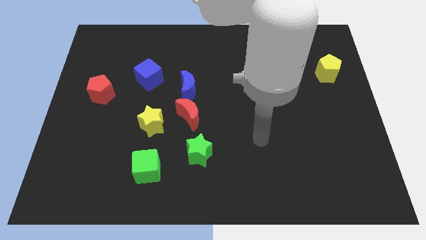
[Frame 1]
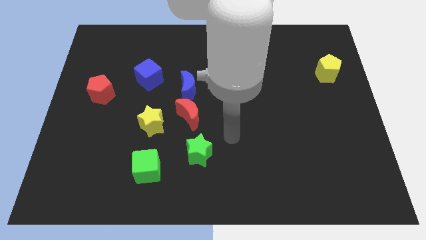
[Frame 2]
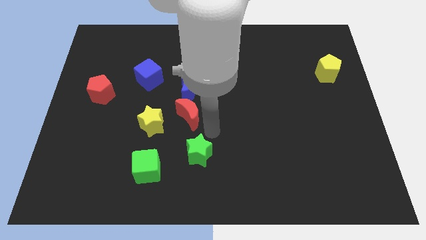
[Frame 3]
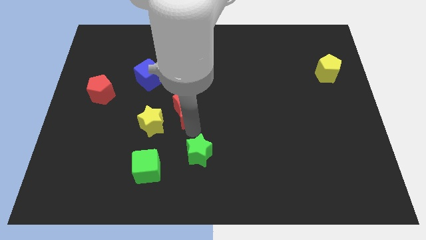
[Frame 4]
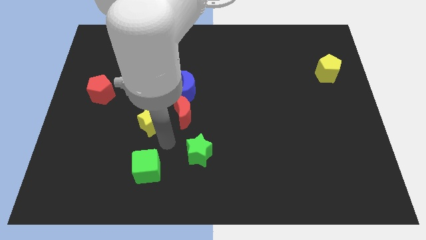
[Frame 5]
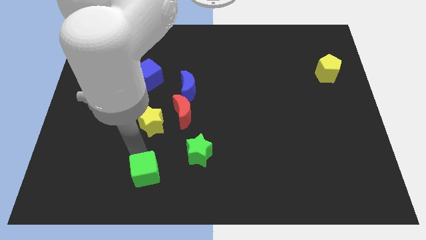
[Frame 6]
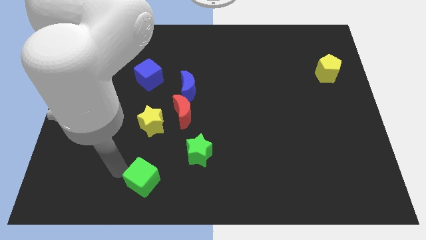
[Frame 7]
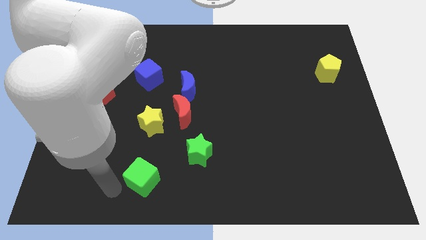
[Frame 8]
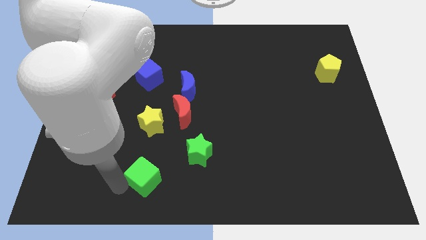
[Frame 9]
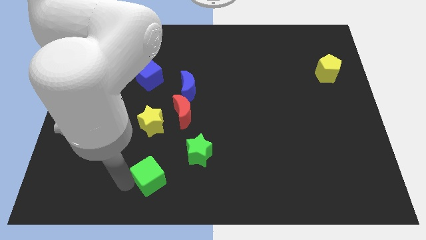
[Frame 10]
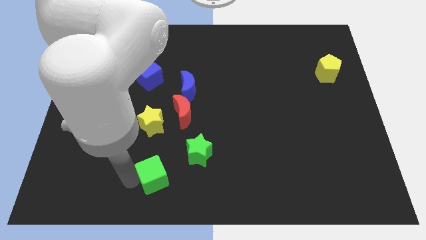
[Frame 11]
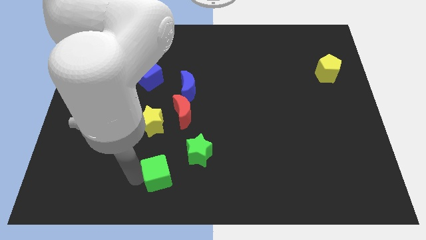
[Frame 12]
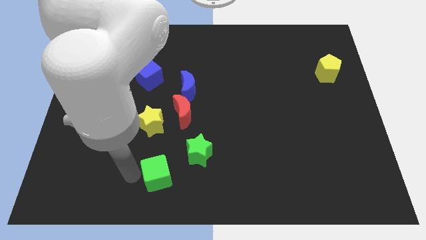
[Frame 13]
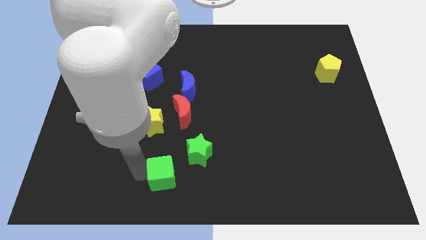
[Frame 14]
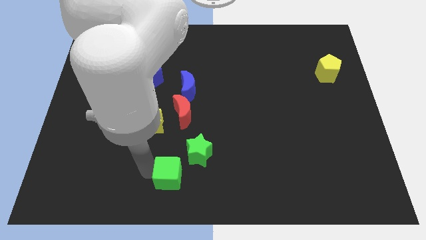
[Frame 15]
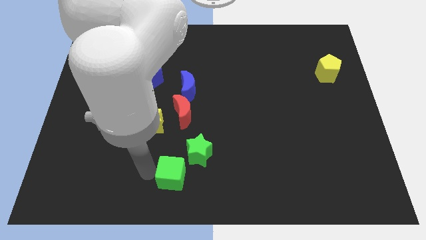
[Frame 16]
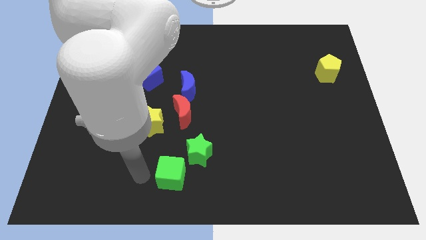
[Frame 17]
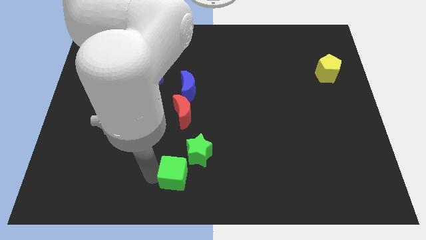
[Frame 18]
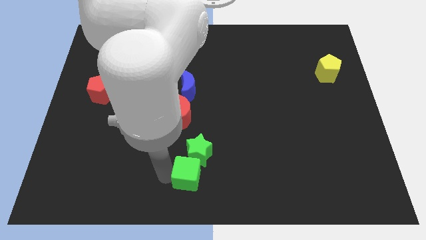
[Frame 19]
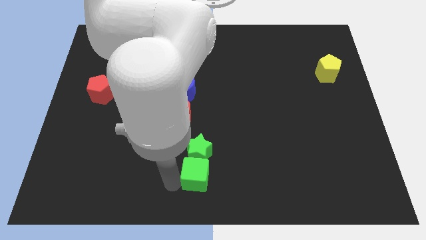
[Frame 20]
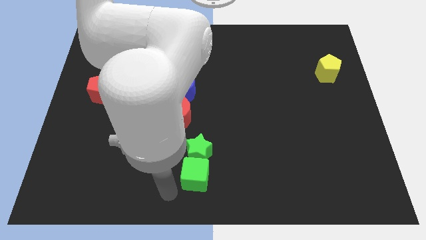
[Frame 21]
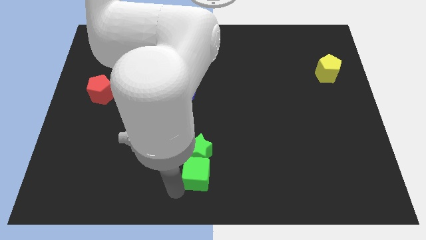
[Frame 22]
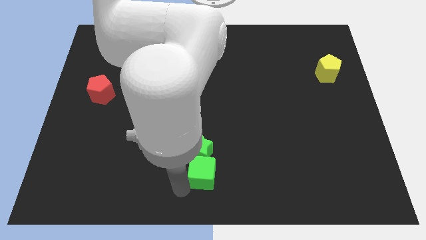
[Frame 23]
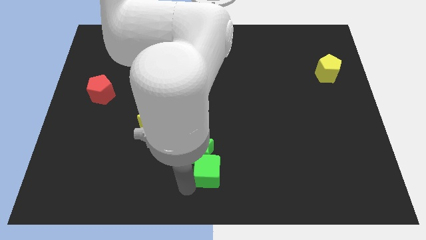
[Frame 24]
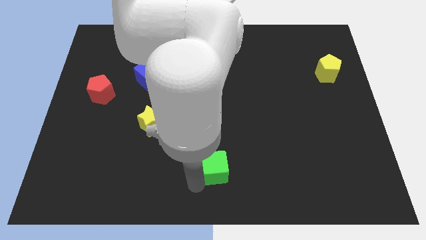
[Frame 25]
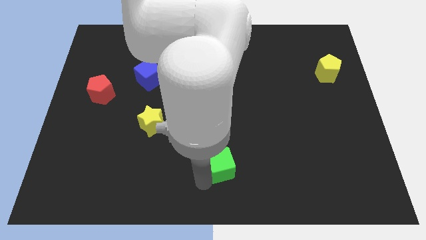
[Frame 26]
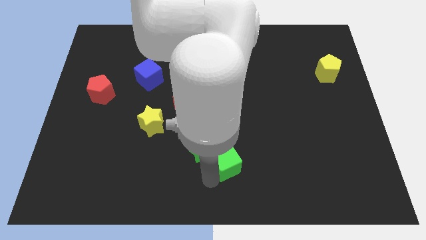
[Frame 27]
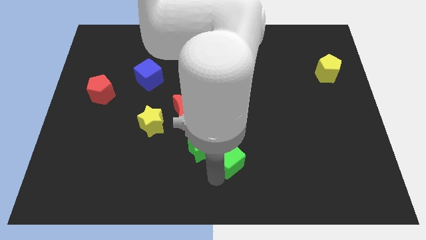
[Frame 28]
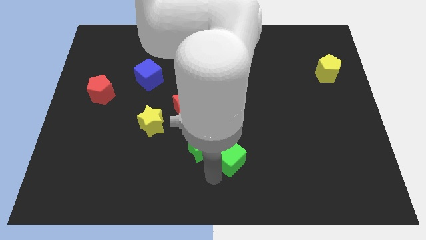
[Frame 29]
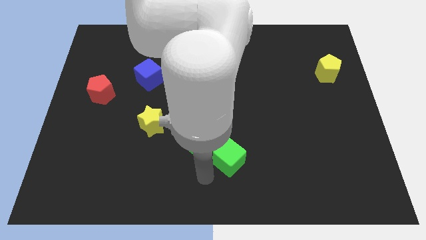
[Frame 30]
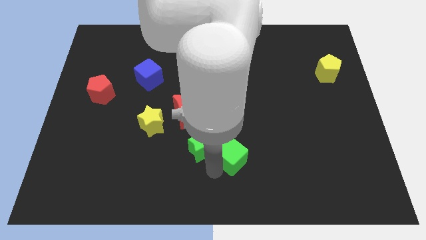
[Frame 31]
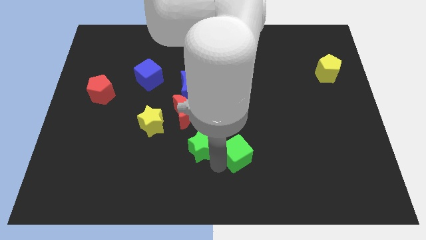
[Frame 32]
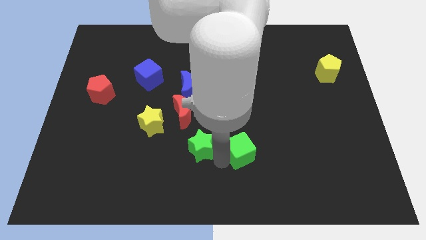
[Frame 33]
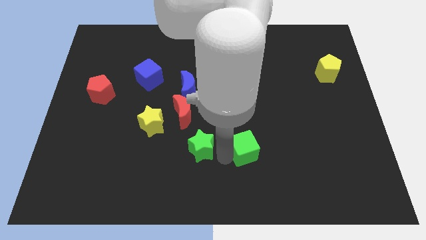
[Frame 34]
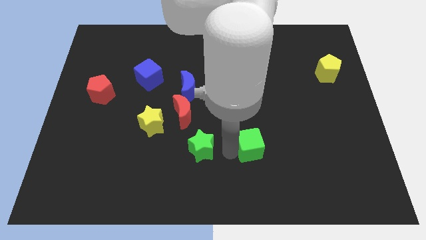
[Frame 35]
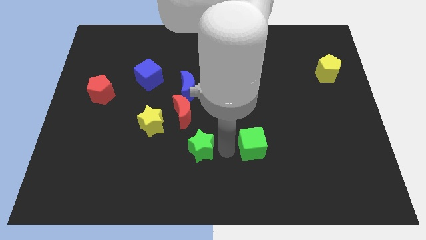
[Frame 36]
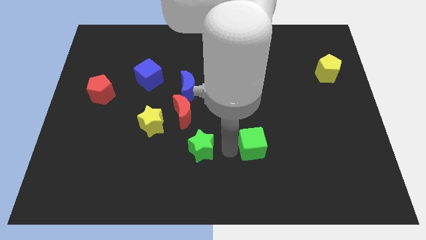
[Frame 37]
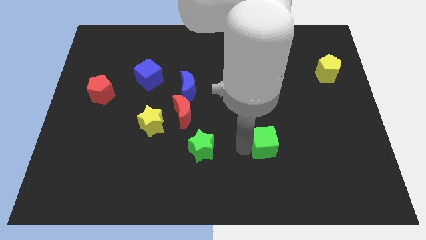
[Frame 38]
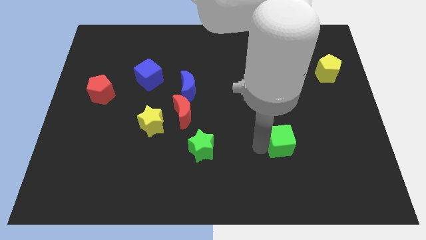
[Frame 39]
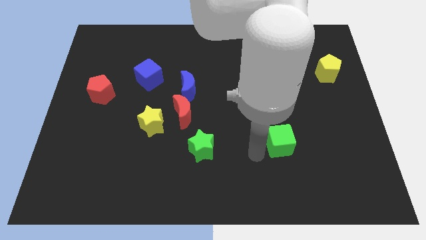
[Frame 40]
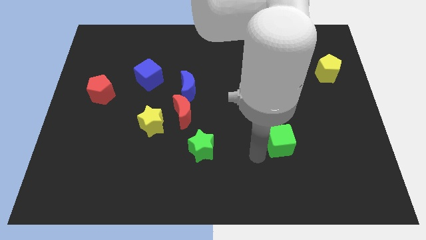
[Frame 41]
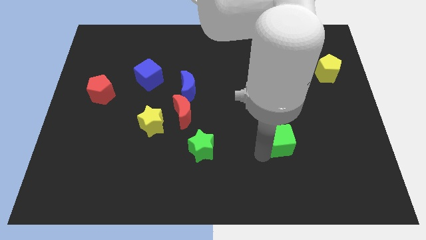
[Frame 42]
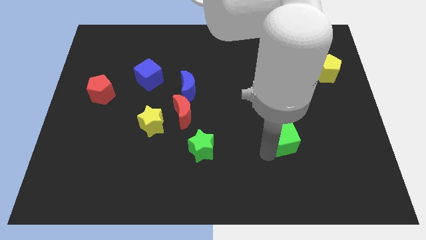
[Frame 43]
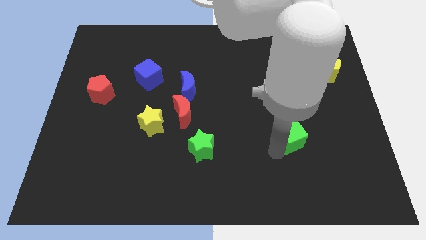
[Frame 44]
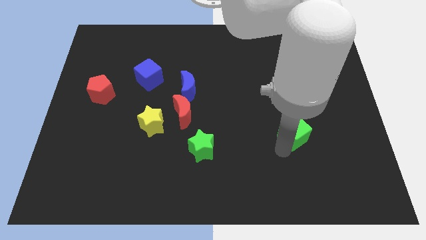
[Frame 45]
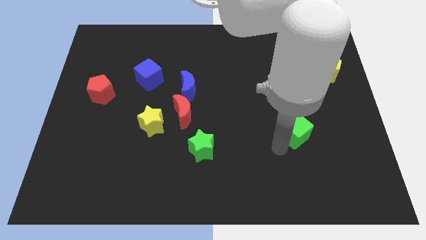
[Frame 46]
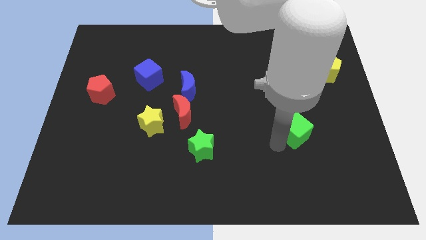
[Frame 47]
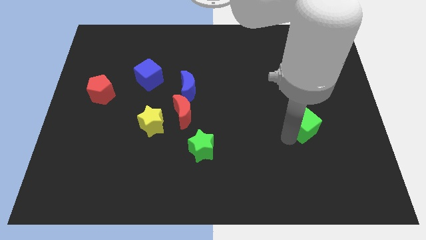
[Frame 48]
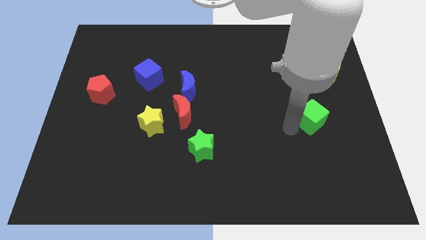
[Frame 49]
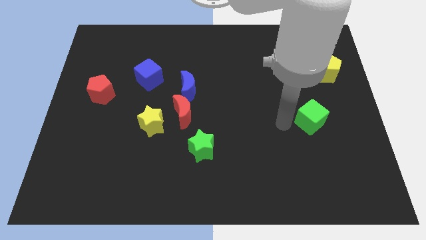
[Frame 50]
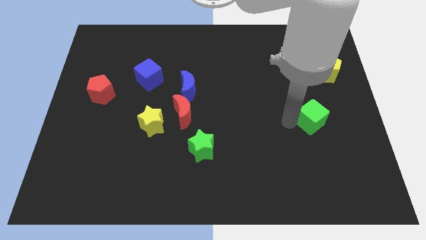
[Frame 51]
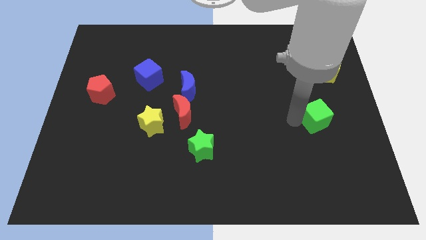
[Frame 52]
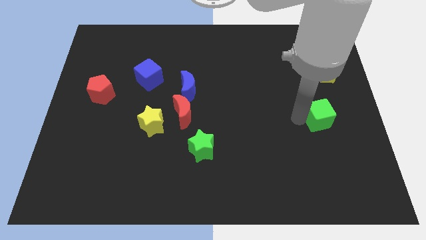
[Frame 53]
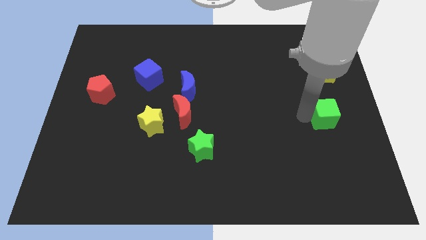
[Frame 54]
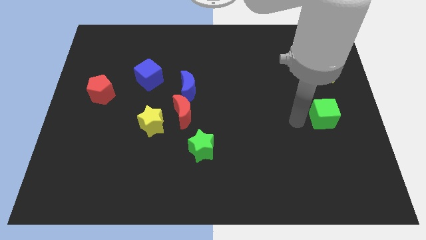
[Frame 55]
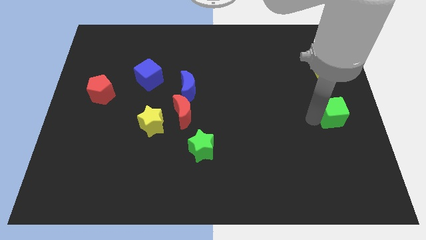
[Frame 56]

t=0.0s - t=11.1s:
move the green cube to the right side of the board
